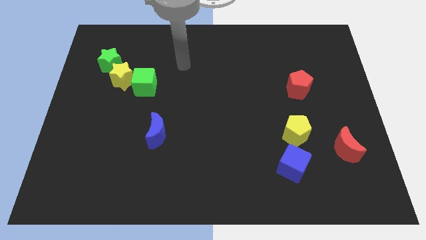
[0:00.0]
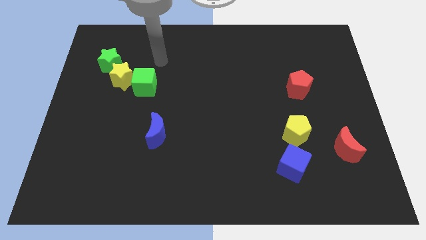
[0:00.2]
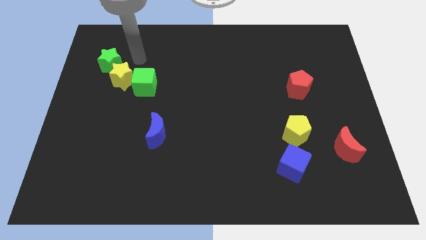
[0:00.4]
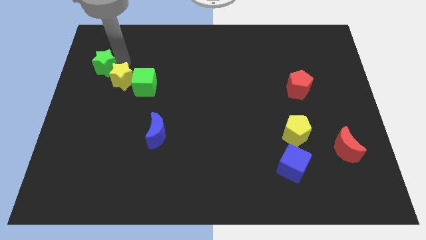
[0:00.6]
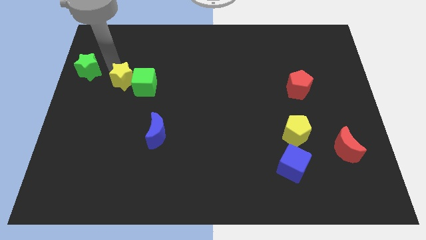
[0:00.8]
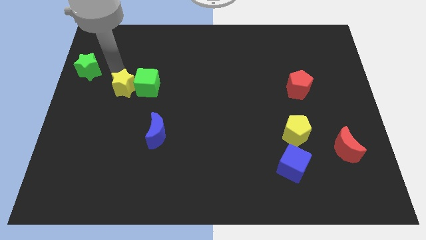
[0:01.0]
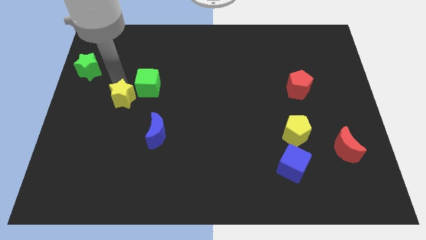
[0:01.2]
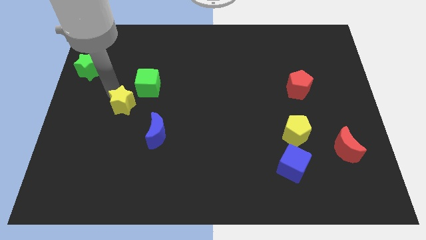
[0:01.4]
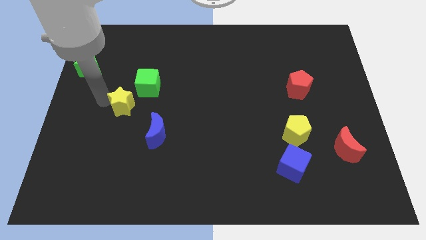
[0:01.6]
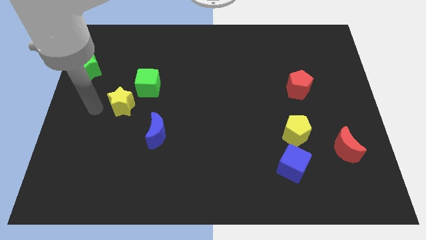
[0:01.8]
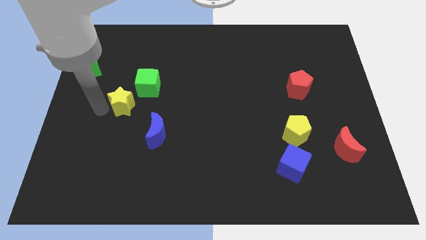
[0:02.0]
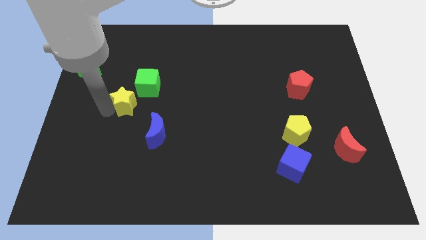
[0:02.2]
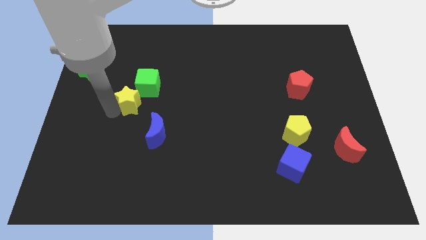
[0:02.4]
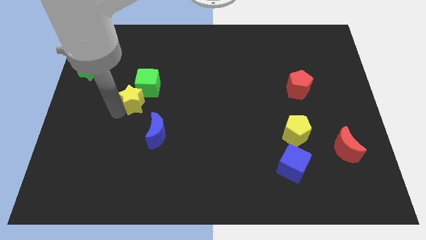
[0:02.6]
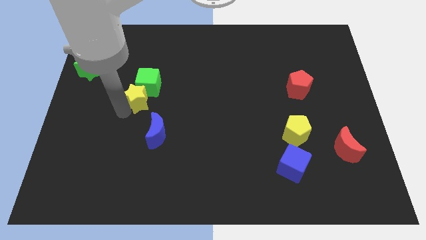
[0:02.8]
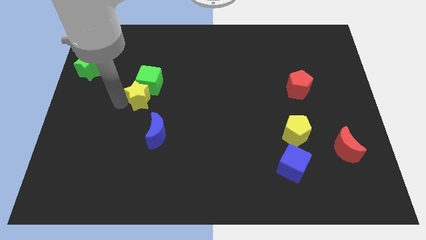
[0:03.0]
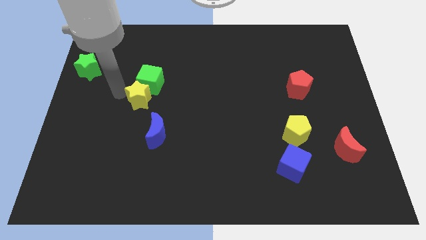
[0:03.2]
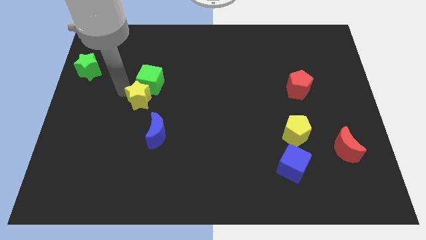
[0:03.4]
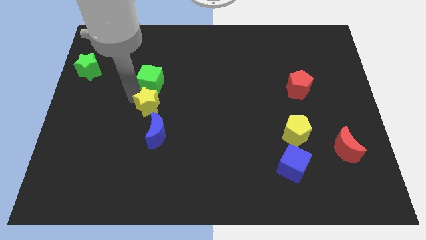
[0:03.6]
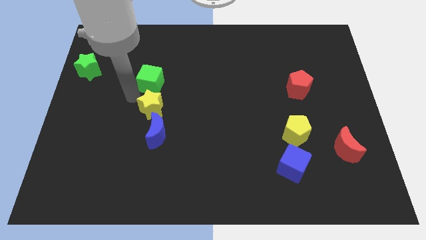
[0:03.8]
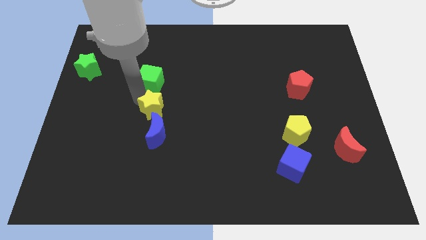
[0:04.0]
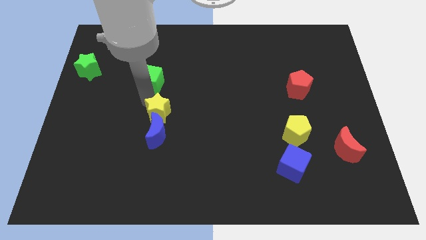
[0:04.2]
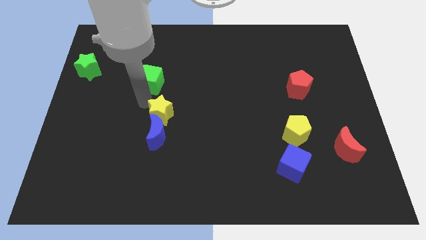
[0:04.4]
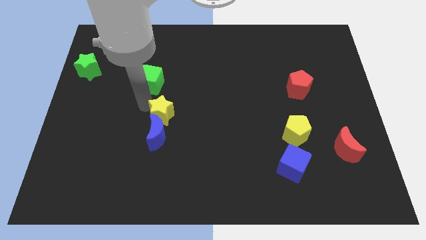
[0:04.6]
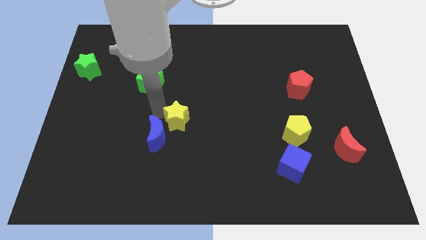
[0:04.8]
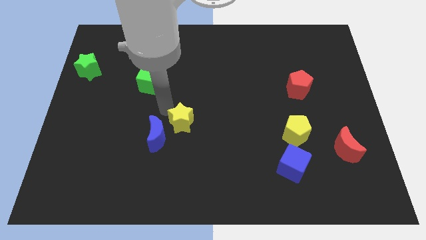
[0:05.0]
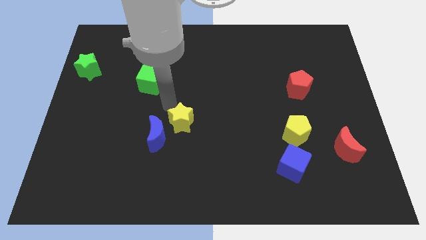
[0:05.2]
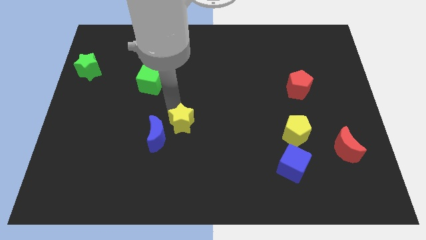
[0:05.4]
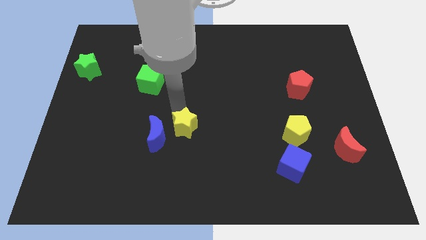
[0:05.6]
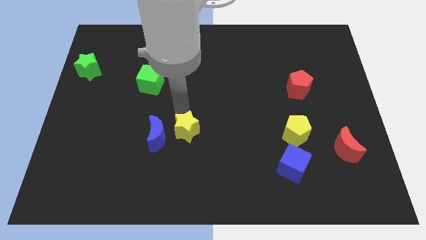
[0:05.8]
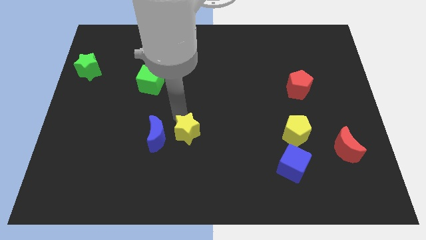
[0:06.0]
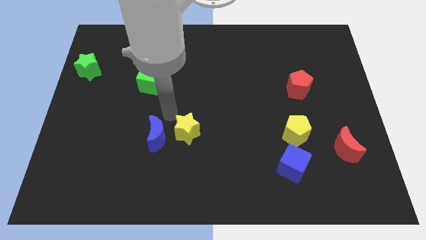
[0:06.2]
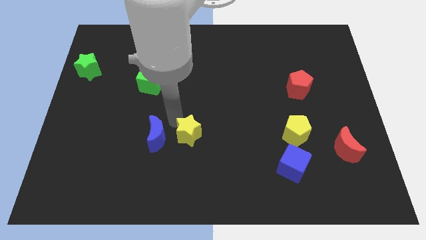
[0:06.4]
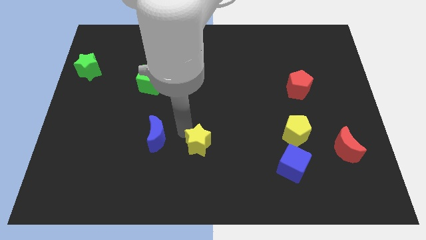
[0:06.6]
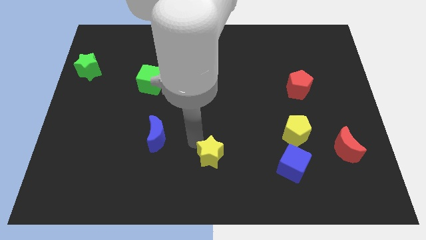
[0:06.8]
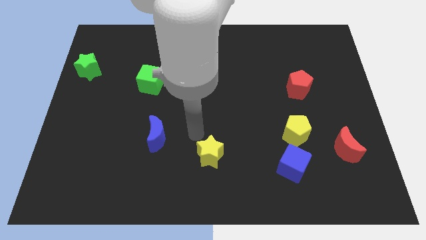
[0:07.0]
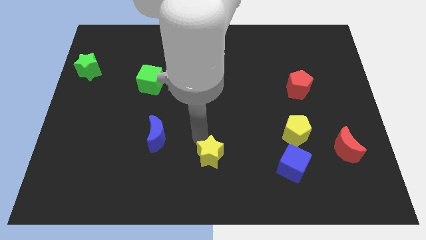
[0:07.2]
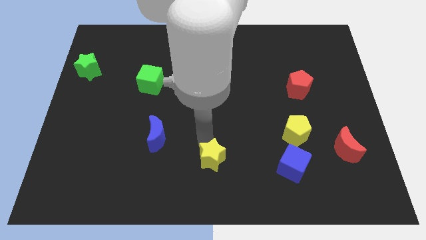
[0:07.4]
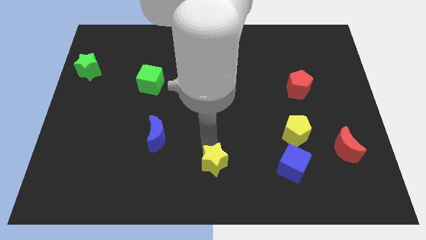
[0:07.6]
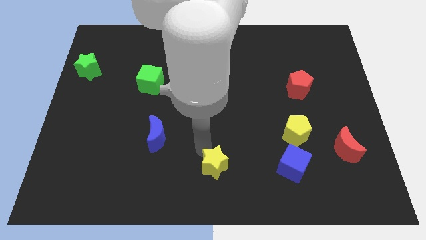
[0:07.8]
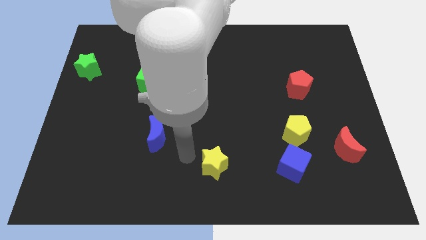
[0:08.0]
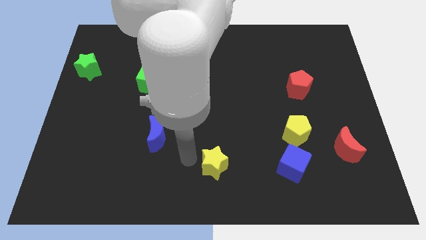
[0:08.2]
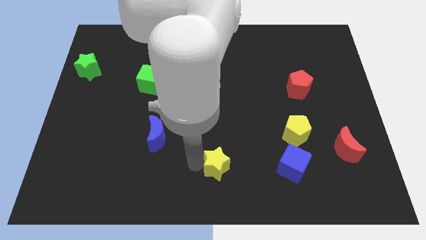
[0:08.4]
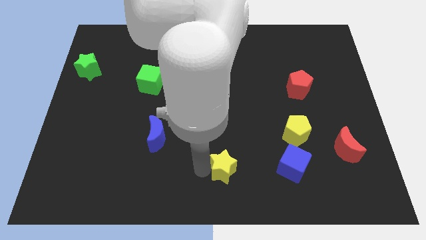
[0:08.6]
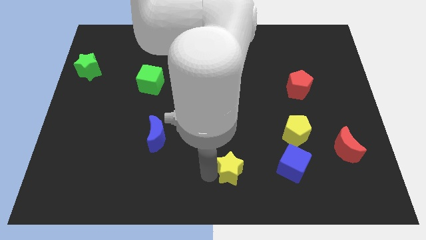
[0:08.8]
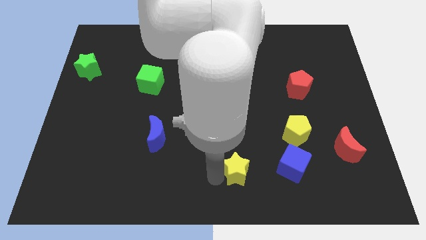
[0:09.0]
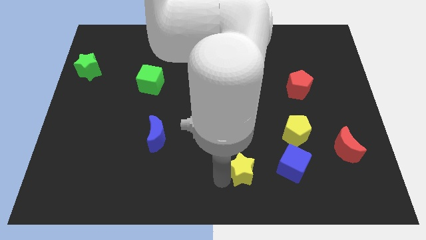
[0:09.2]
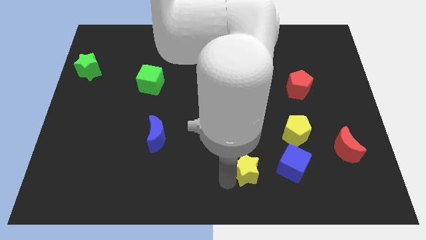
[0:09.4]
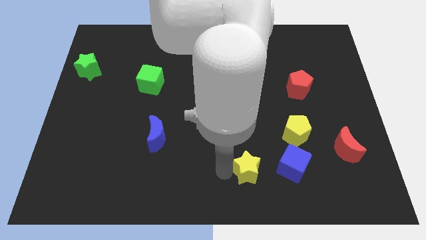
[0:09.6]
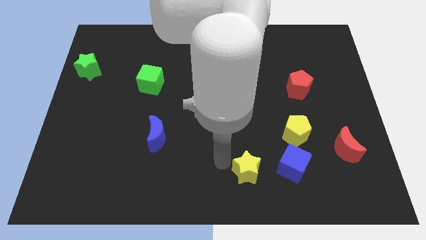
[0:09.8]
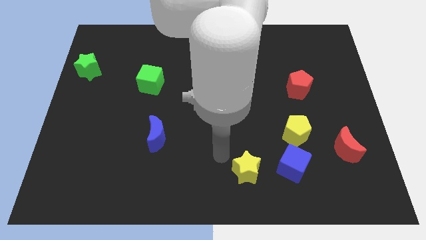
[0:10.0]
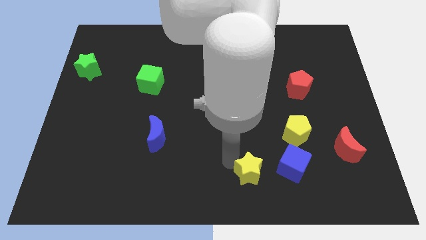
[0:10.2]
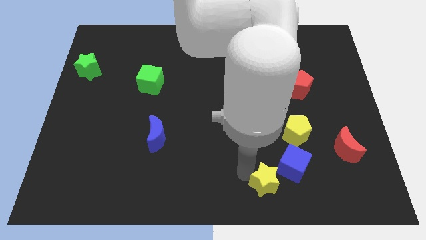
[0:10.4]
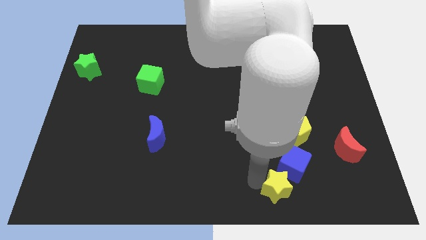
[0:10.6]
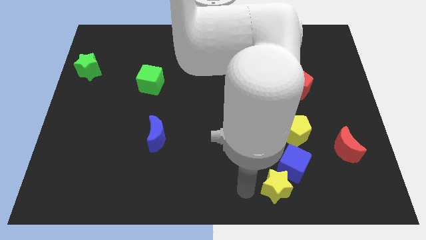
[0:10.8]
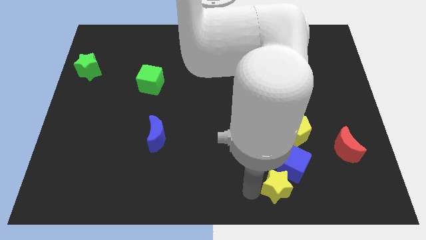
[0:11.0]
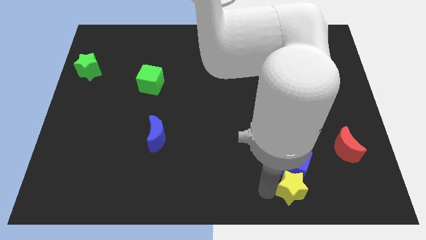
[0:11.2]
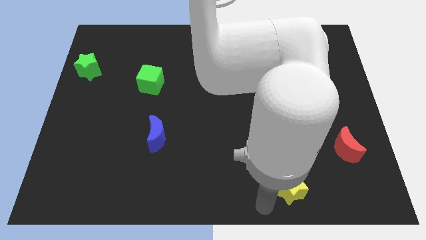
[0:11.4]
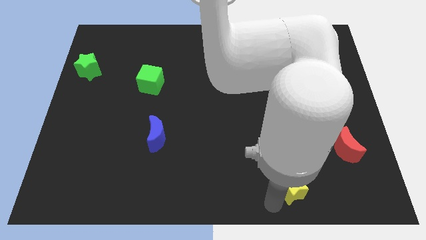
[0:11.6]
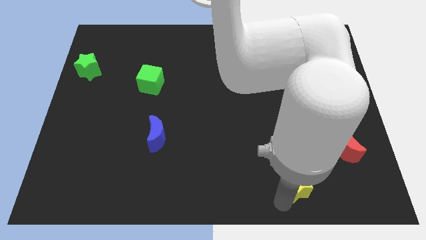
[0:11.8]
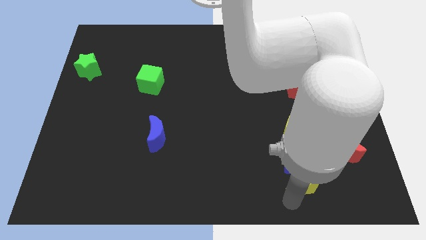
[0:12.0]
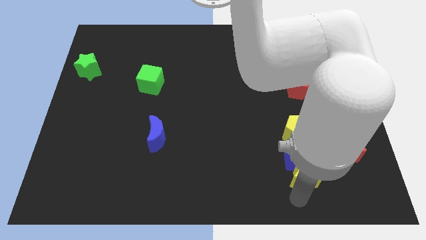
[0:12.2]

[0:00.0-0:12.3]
move the yellow star to the bottom left of the red moon

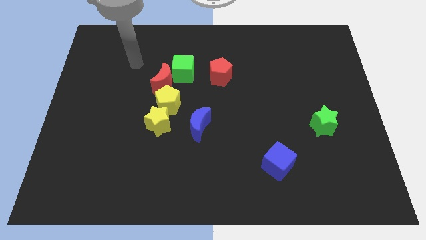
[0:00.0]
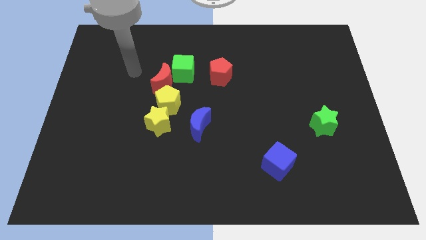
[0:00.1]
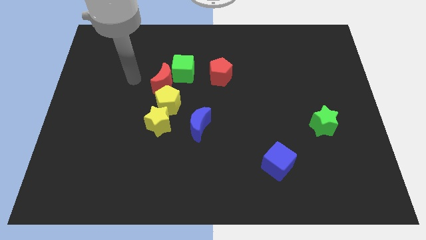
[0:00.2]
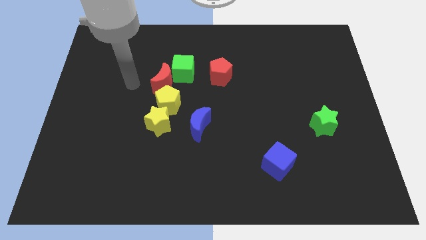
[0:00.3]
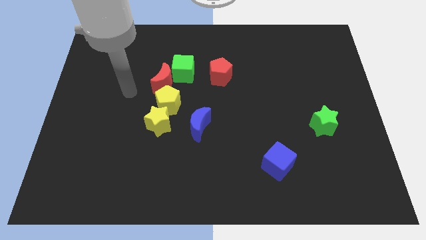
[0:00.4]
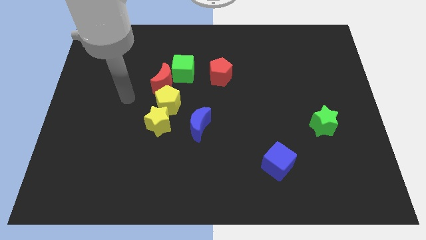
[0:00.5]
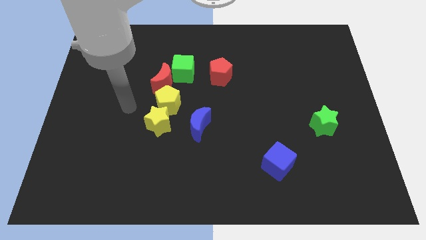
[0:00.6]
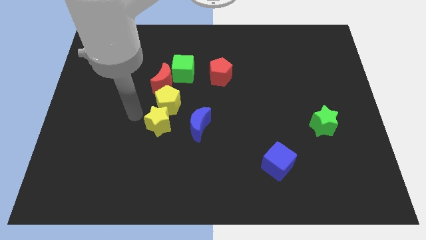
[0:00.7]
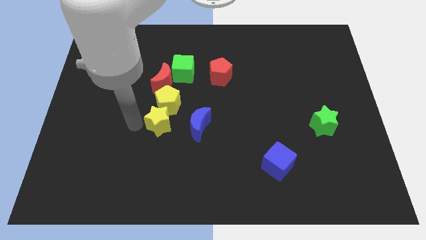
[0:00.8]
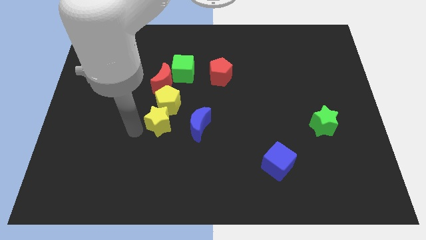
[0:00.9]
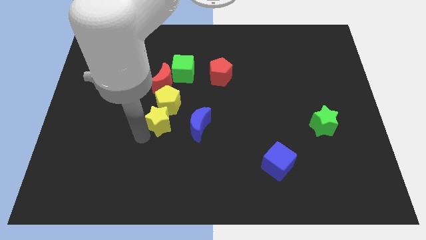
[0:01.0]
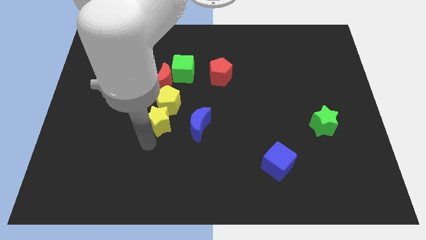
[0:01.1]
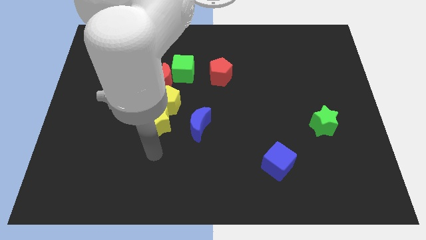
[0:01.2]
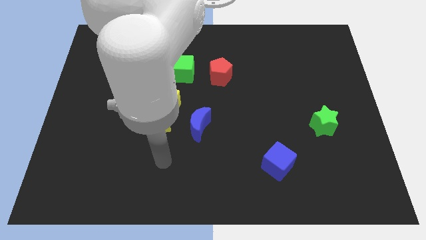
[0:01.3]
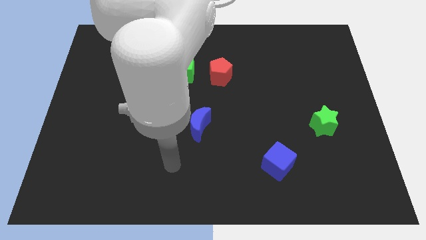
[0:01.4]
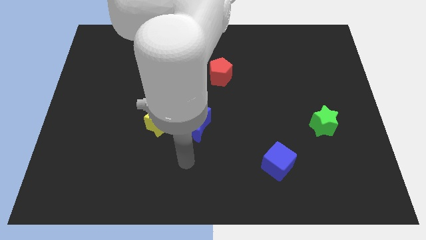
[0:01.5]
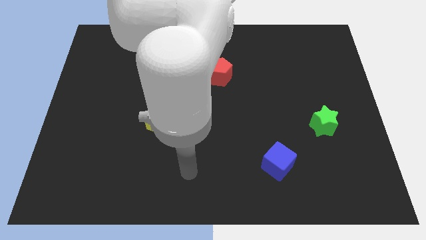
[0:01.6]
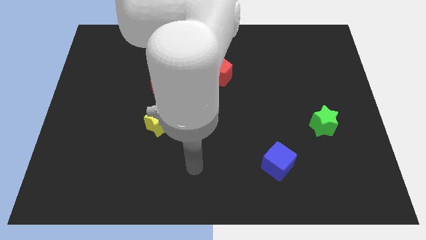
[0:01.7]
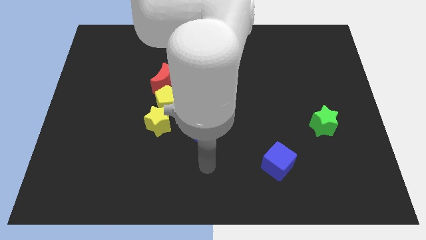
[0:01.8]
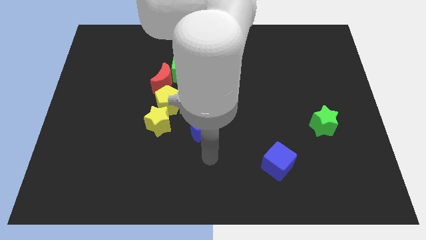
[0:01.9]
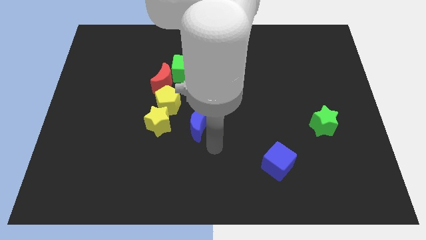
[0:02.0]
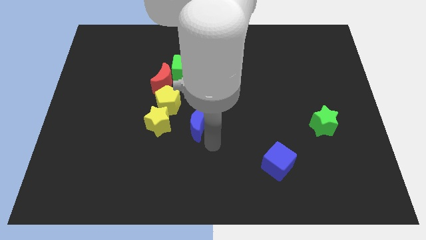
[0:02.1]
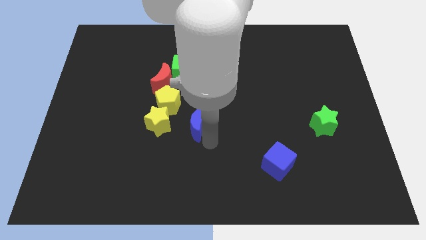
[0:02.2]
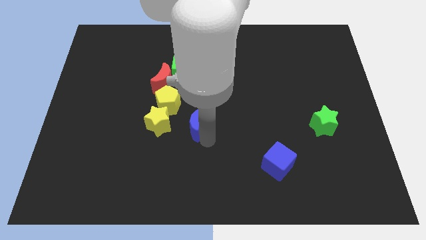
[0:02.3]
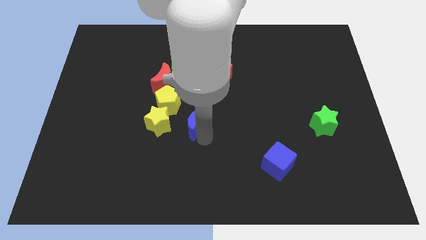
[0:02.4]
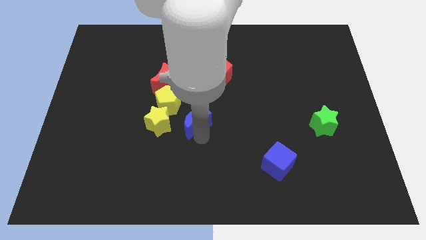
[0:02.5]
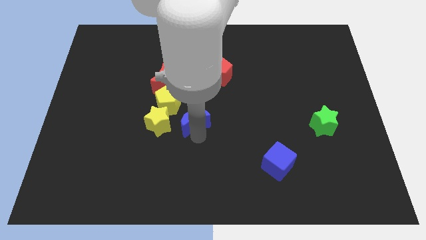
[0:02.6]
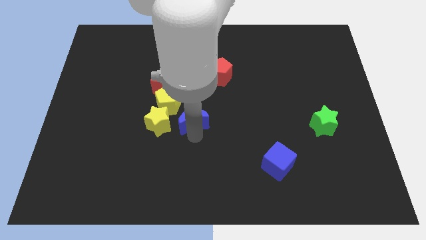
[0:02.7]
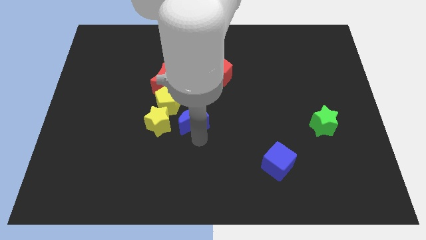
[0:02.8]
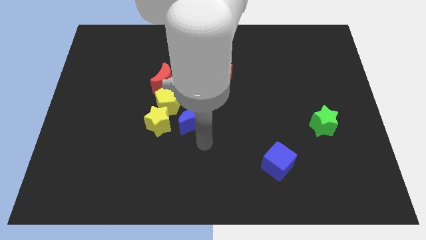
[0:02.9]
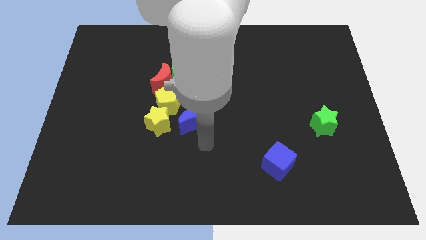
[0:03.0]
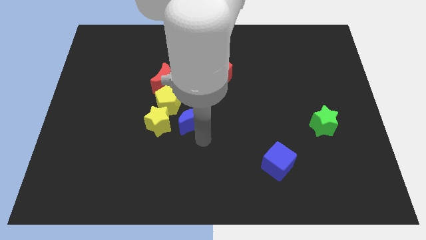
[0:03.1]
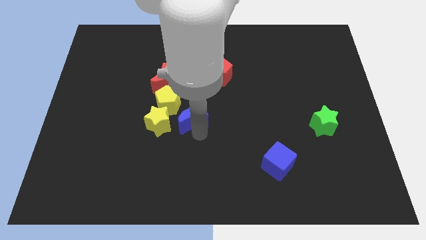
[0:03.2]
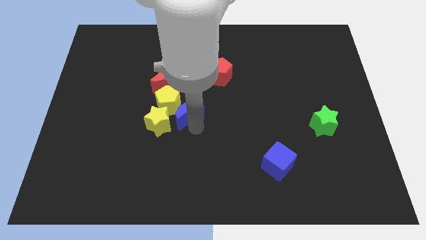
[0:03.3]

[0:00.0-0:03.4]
put the blue moon to the top right side of the yellow star
